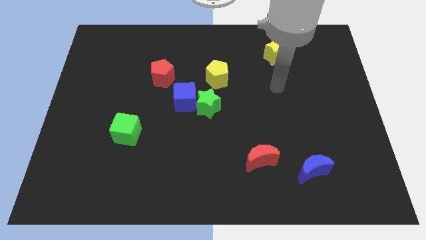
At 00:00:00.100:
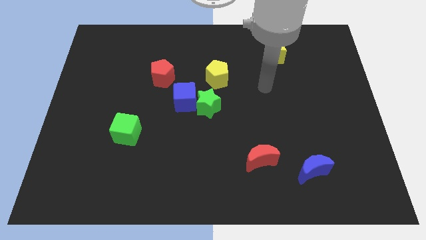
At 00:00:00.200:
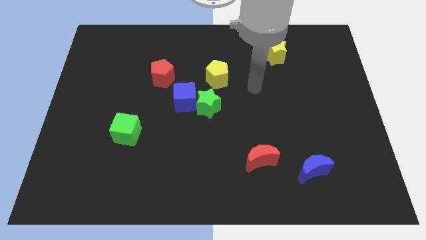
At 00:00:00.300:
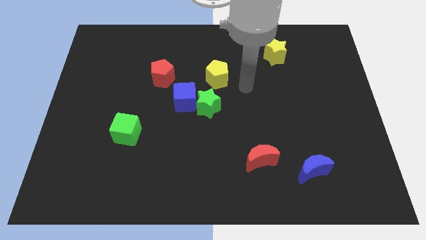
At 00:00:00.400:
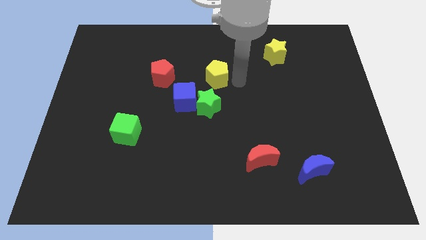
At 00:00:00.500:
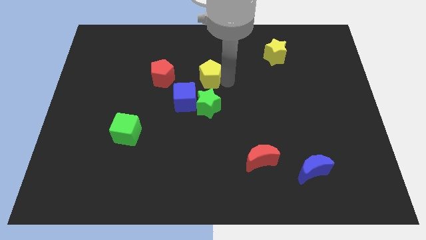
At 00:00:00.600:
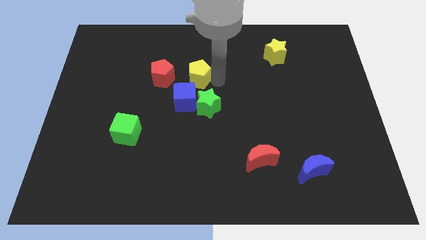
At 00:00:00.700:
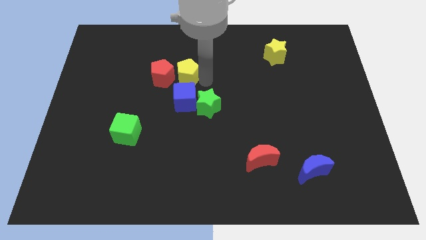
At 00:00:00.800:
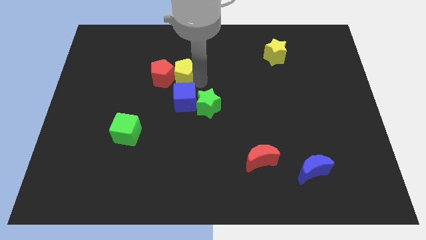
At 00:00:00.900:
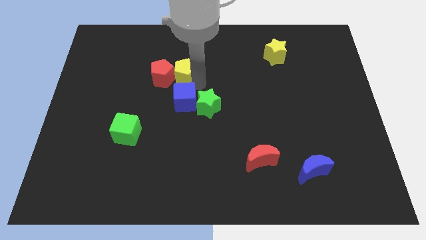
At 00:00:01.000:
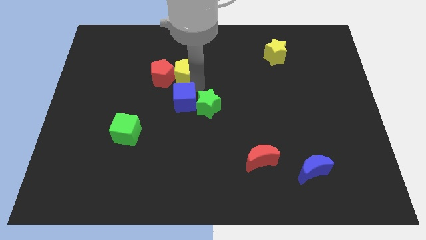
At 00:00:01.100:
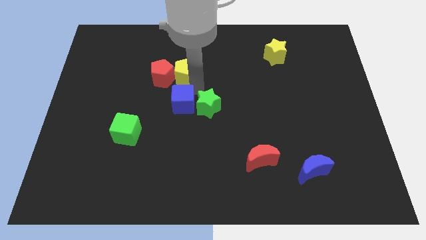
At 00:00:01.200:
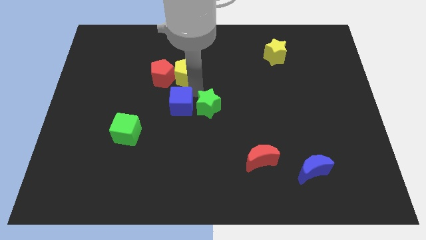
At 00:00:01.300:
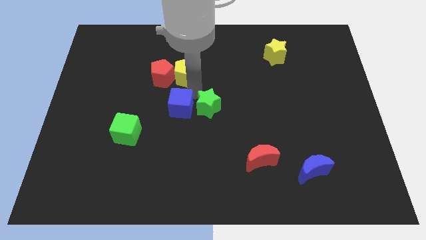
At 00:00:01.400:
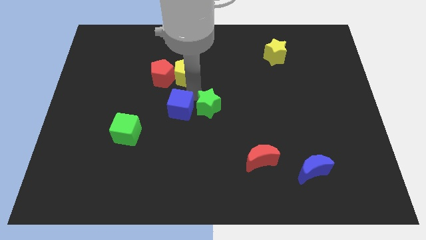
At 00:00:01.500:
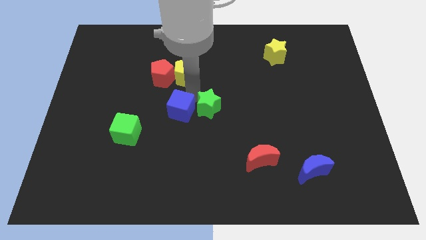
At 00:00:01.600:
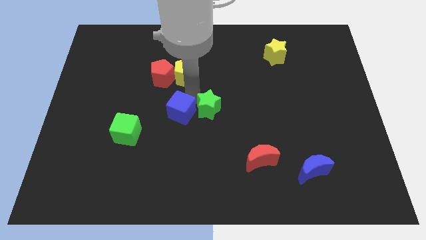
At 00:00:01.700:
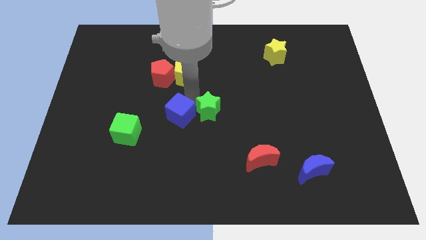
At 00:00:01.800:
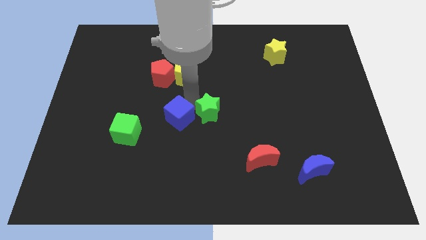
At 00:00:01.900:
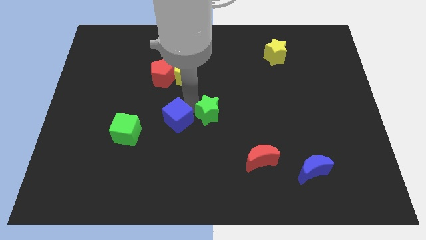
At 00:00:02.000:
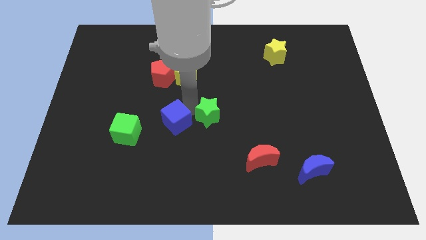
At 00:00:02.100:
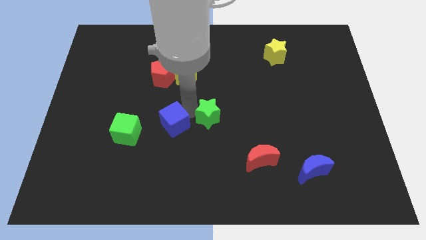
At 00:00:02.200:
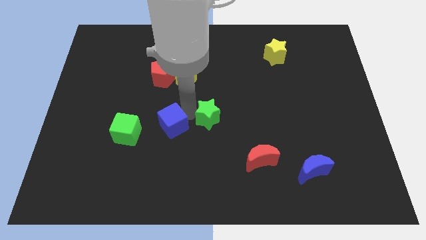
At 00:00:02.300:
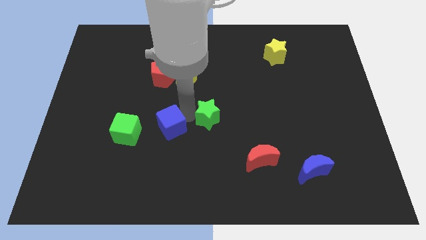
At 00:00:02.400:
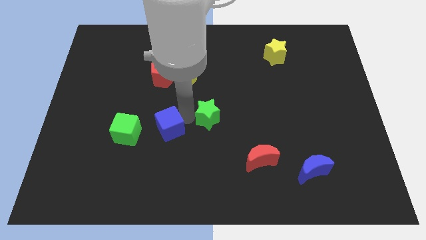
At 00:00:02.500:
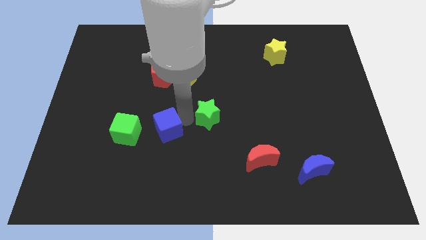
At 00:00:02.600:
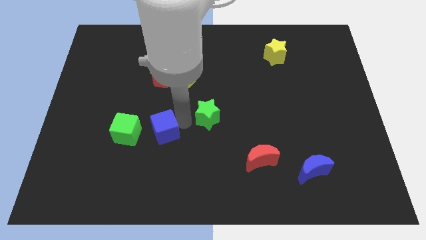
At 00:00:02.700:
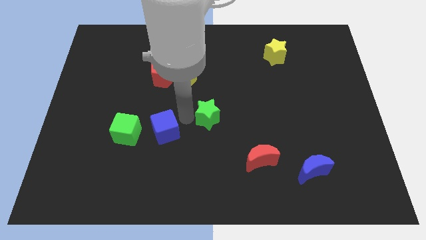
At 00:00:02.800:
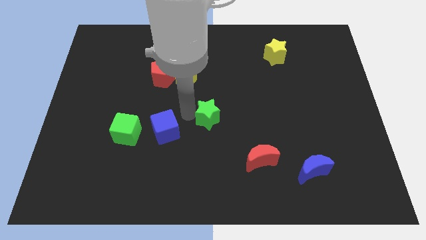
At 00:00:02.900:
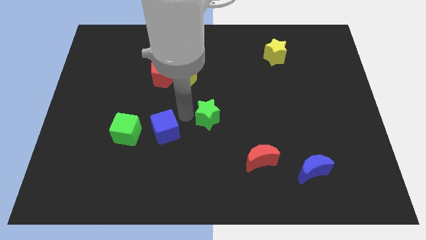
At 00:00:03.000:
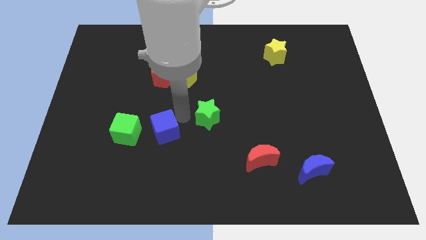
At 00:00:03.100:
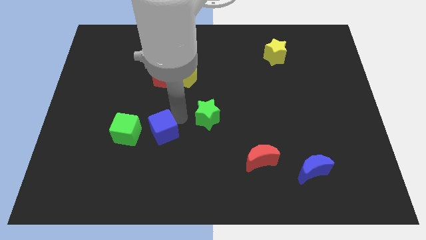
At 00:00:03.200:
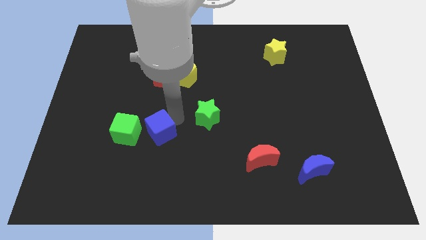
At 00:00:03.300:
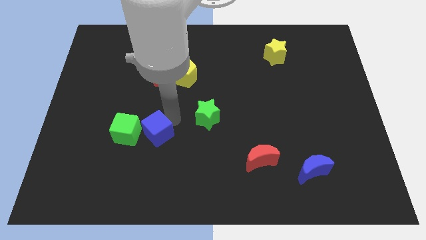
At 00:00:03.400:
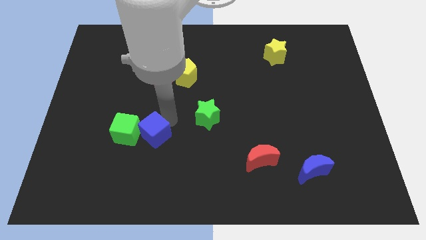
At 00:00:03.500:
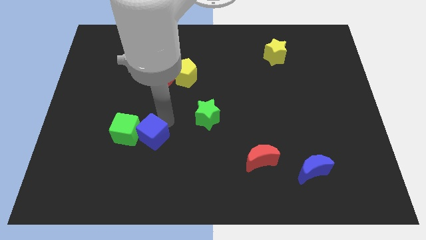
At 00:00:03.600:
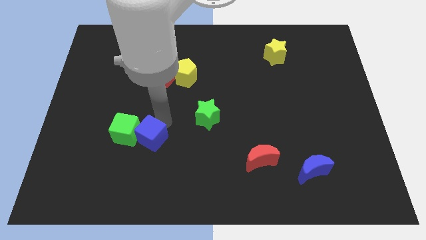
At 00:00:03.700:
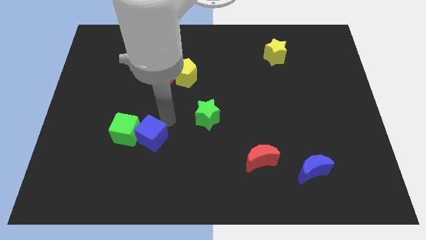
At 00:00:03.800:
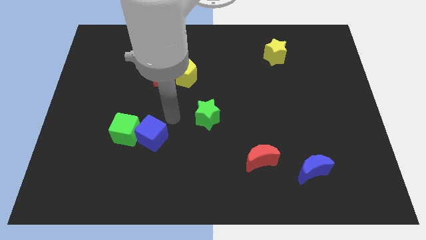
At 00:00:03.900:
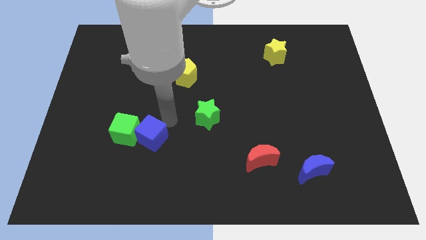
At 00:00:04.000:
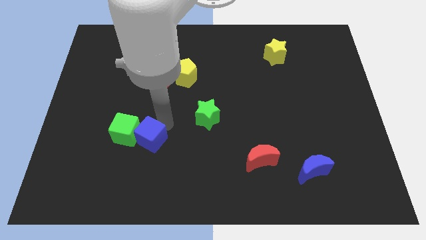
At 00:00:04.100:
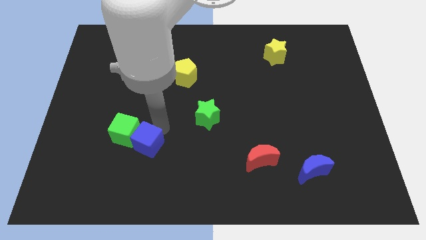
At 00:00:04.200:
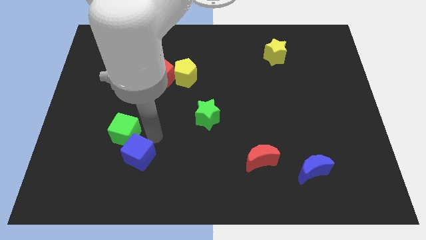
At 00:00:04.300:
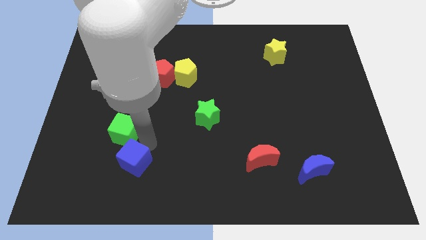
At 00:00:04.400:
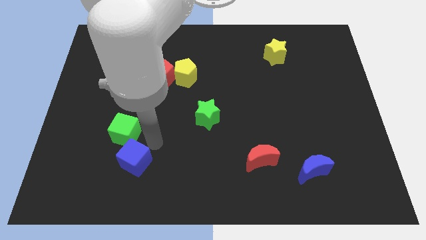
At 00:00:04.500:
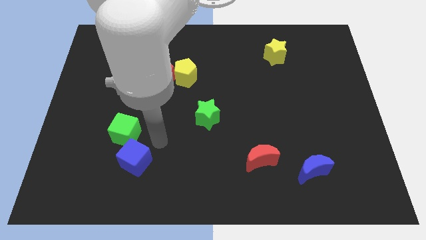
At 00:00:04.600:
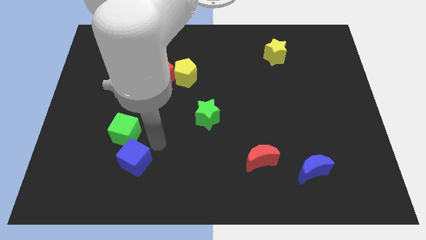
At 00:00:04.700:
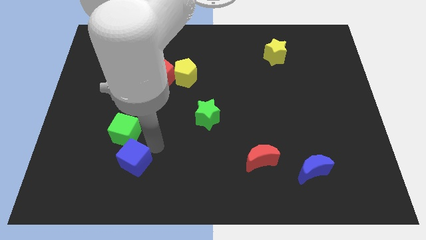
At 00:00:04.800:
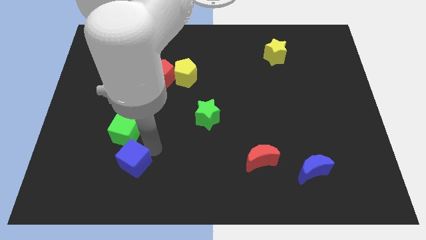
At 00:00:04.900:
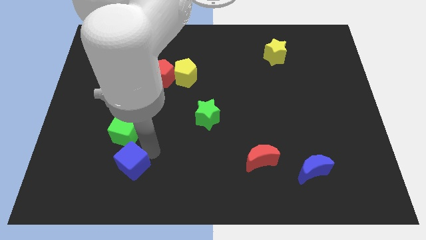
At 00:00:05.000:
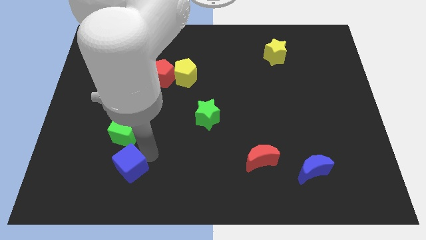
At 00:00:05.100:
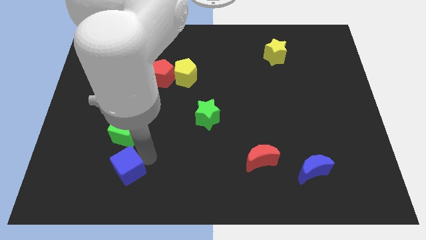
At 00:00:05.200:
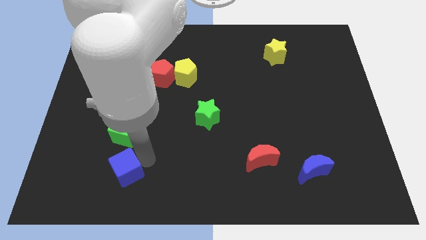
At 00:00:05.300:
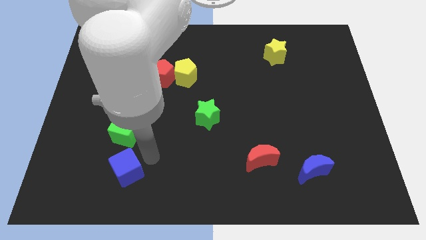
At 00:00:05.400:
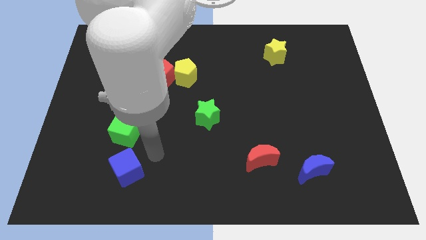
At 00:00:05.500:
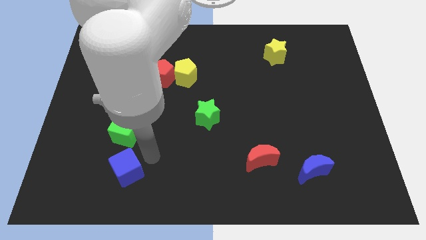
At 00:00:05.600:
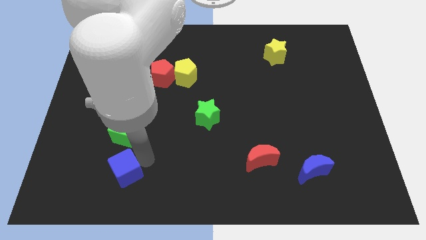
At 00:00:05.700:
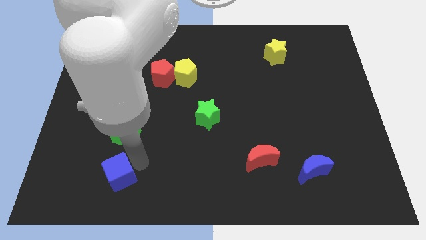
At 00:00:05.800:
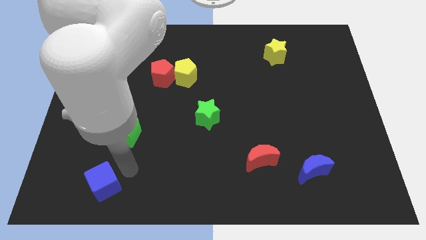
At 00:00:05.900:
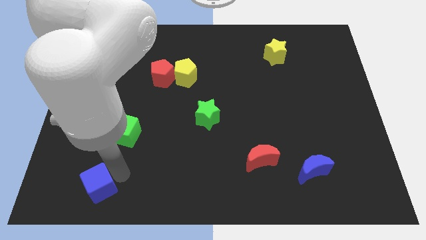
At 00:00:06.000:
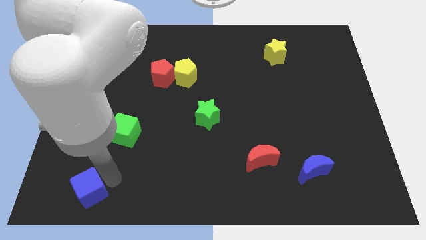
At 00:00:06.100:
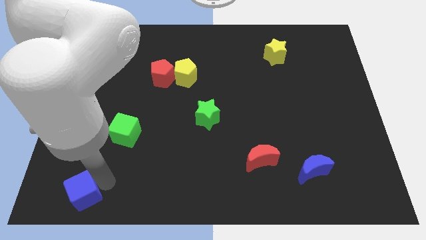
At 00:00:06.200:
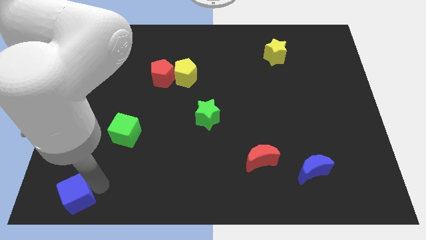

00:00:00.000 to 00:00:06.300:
put the blue cube to the bottom left of the board
